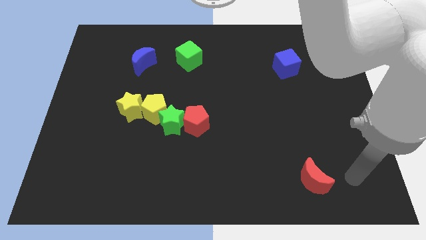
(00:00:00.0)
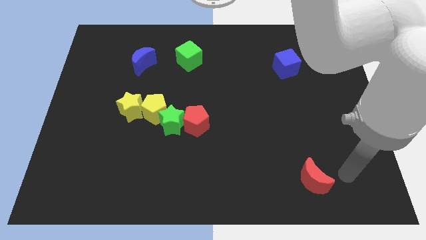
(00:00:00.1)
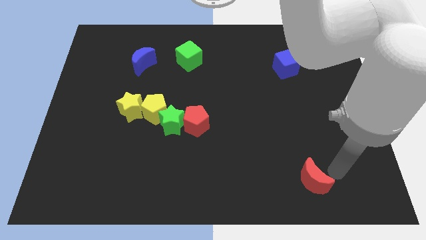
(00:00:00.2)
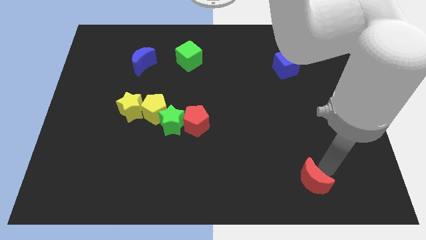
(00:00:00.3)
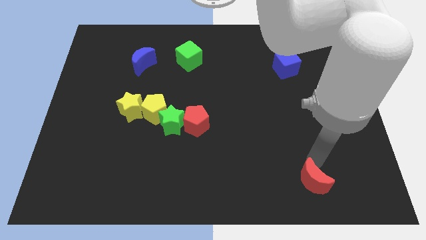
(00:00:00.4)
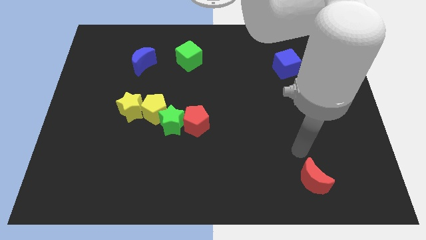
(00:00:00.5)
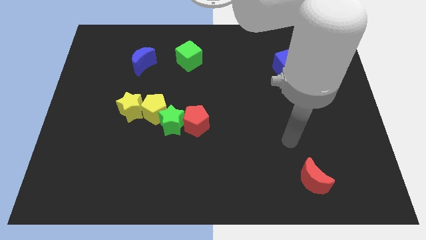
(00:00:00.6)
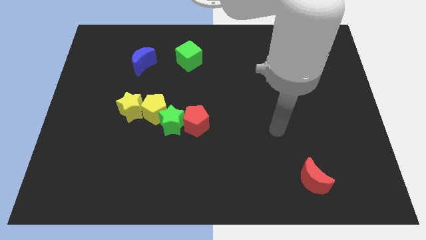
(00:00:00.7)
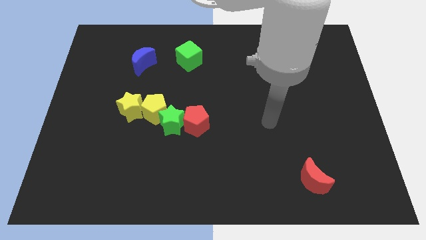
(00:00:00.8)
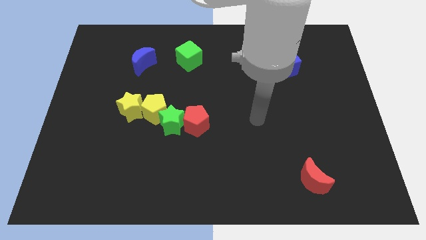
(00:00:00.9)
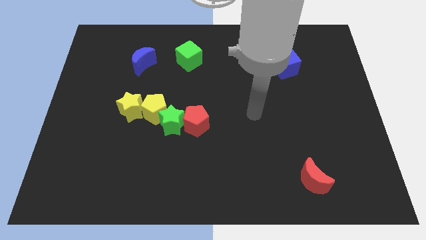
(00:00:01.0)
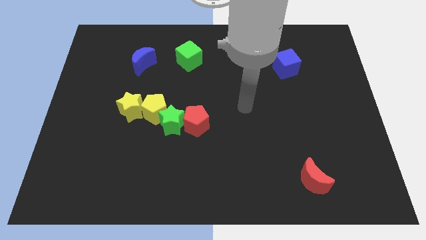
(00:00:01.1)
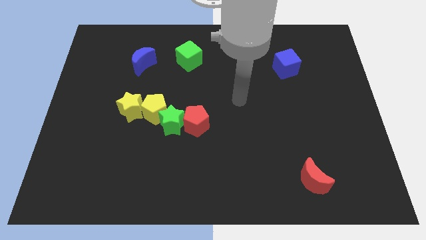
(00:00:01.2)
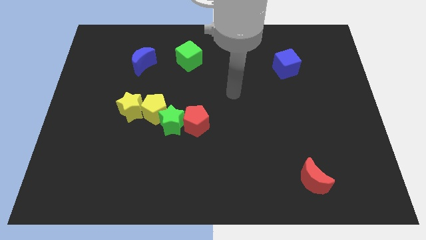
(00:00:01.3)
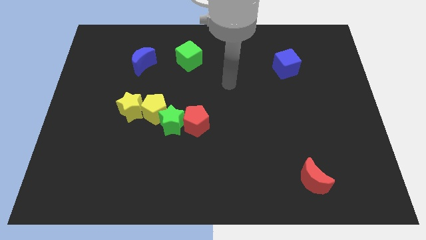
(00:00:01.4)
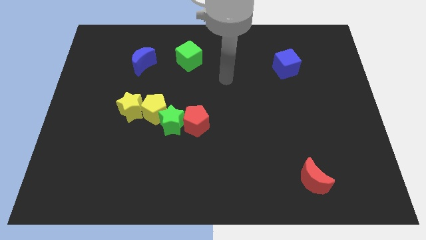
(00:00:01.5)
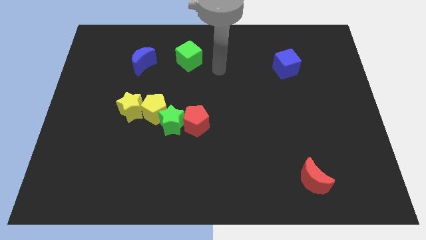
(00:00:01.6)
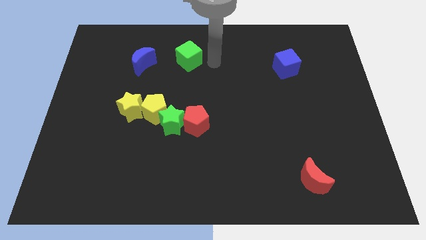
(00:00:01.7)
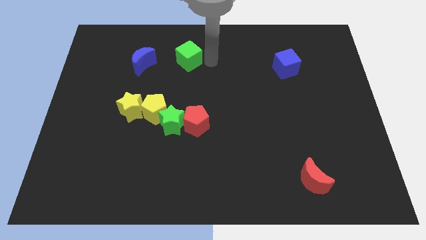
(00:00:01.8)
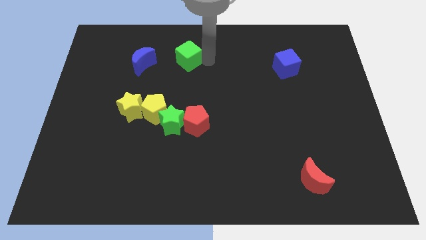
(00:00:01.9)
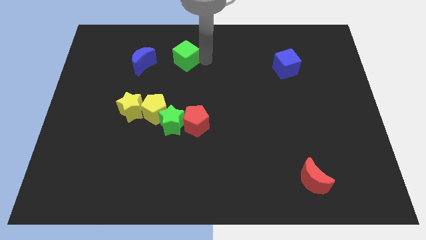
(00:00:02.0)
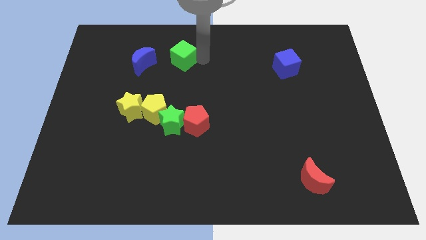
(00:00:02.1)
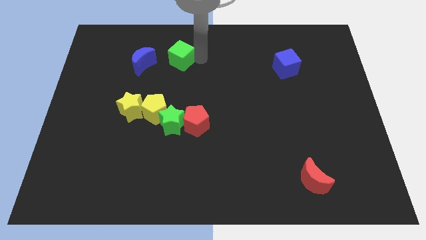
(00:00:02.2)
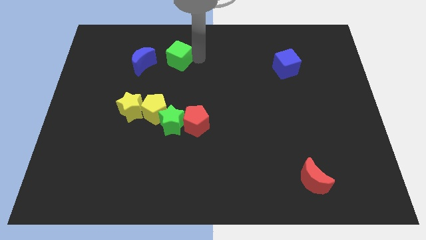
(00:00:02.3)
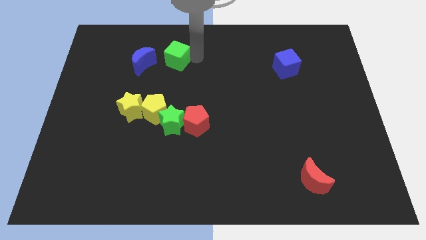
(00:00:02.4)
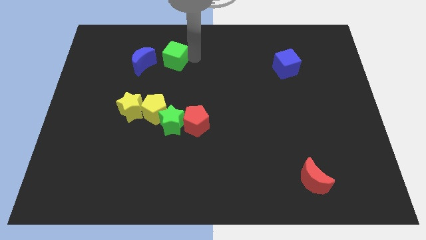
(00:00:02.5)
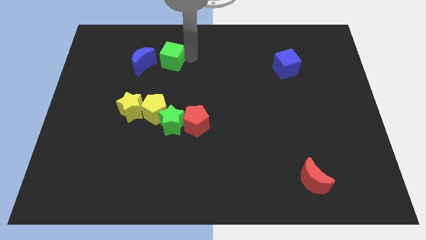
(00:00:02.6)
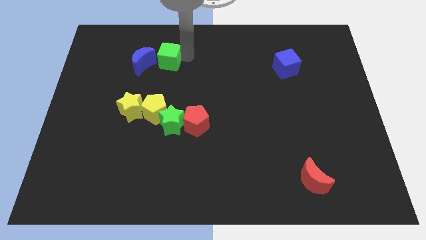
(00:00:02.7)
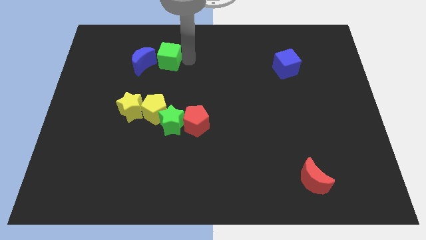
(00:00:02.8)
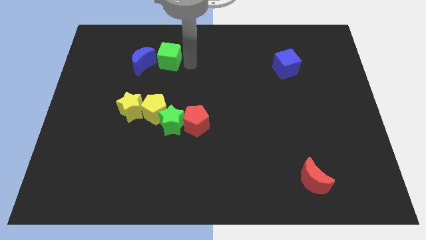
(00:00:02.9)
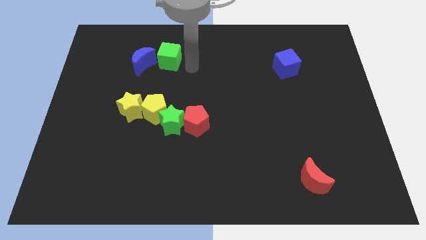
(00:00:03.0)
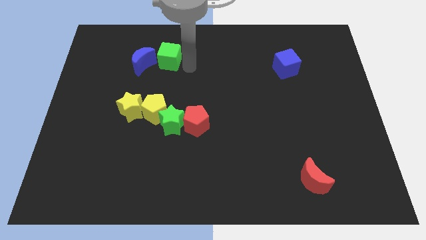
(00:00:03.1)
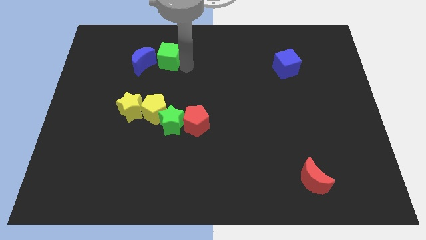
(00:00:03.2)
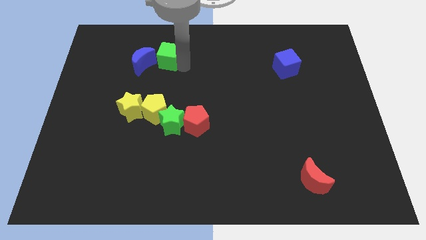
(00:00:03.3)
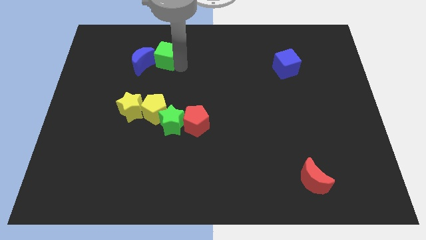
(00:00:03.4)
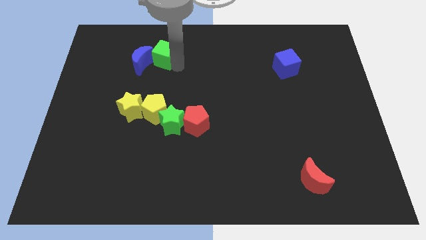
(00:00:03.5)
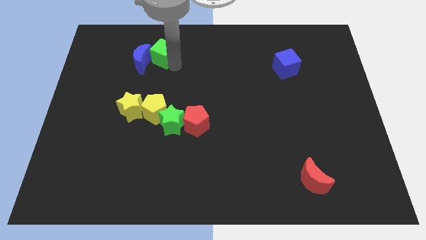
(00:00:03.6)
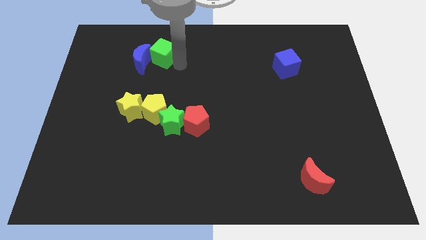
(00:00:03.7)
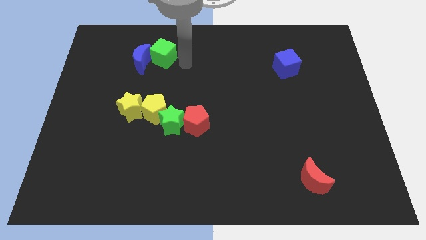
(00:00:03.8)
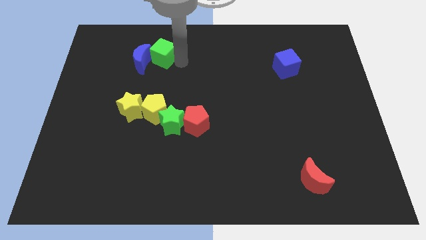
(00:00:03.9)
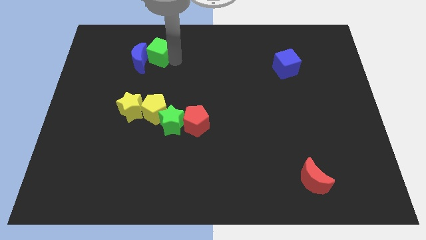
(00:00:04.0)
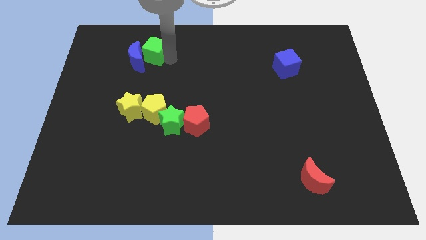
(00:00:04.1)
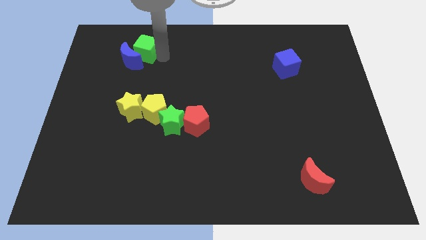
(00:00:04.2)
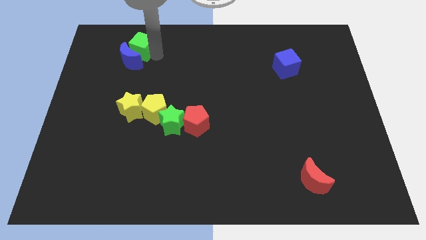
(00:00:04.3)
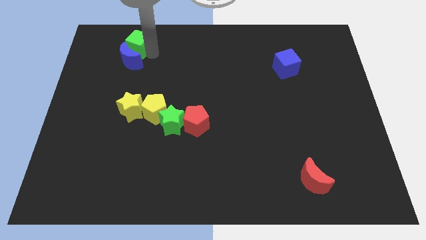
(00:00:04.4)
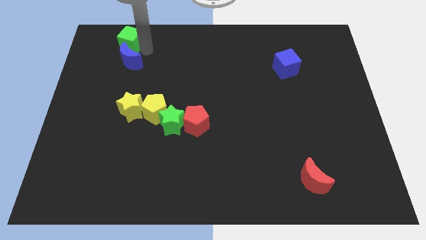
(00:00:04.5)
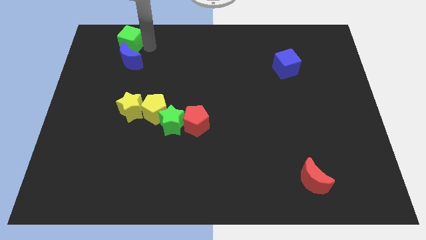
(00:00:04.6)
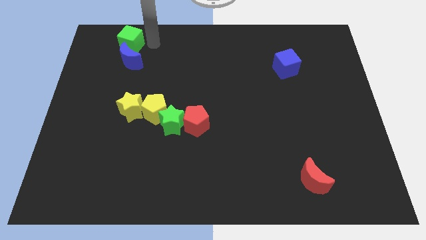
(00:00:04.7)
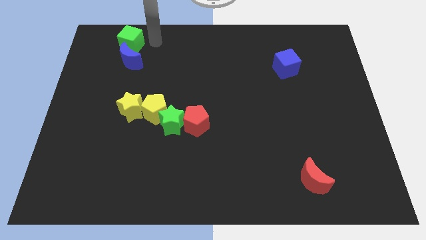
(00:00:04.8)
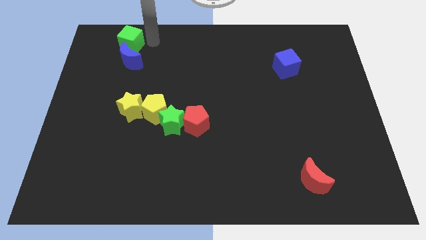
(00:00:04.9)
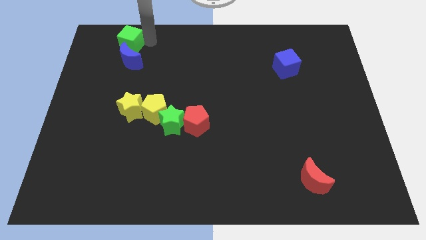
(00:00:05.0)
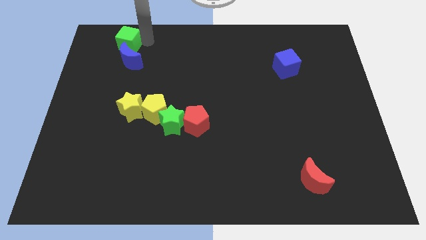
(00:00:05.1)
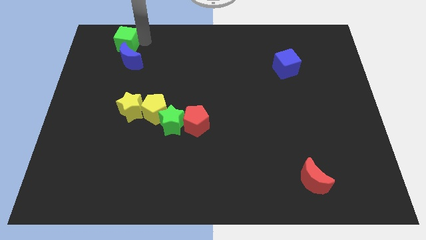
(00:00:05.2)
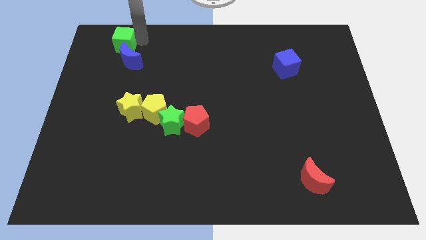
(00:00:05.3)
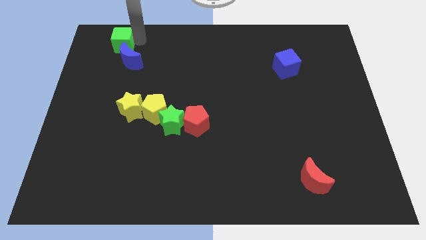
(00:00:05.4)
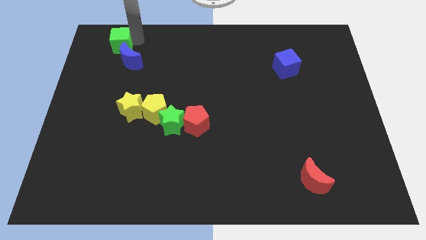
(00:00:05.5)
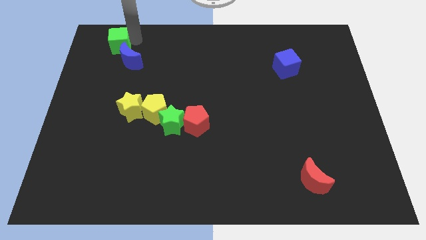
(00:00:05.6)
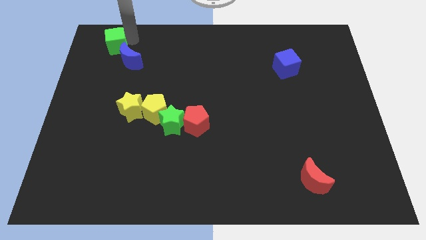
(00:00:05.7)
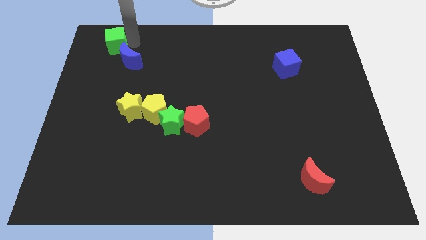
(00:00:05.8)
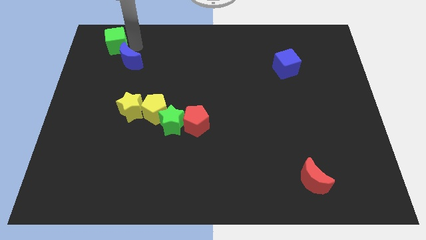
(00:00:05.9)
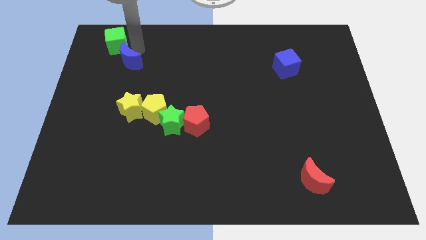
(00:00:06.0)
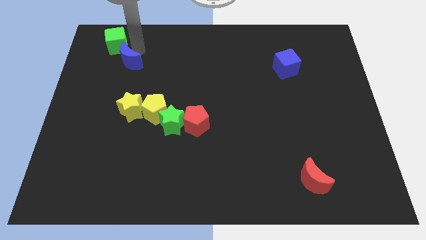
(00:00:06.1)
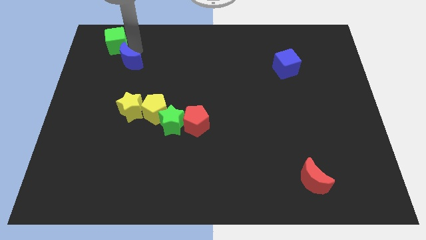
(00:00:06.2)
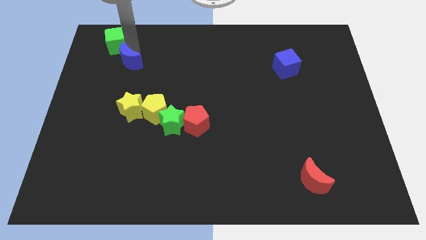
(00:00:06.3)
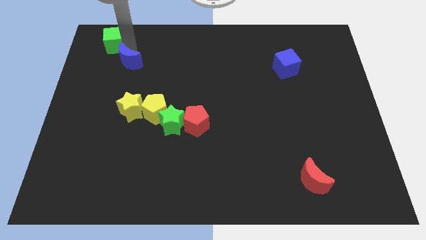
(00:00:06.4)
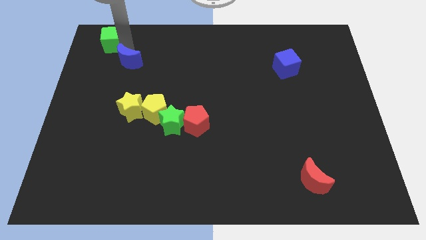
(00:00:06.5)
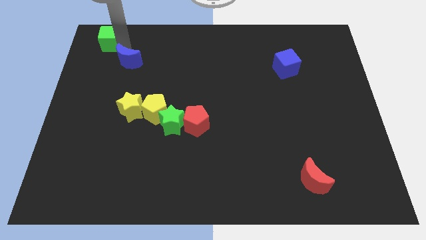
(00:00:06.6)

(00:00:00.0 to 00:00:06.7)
push the green cube to the upper left corner
